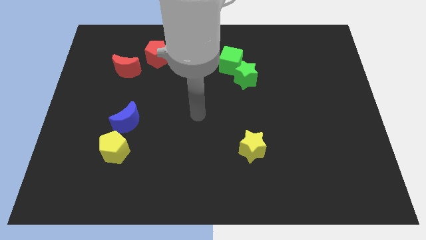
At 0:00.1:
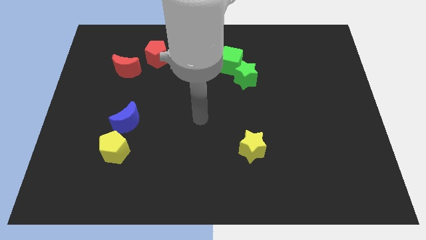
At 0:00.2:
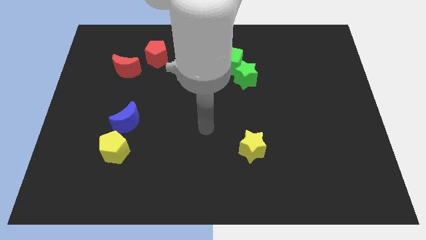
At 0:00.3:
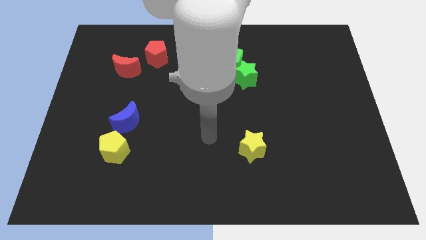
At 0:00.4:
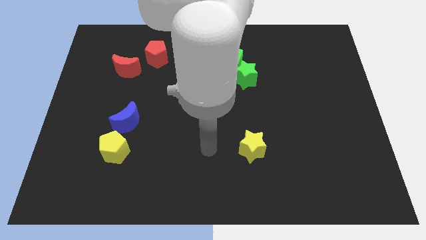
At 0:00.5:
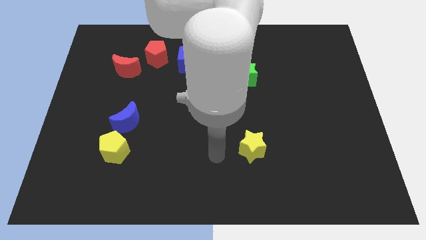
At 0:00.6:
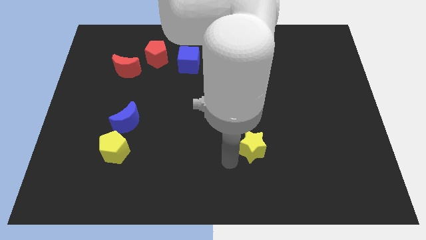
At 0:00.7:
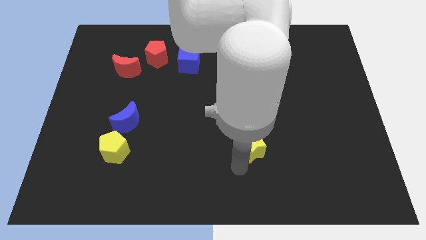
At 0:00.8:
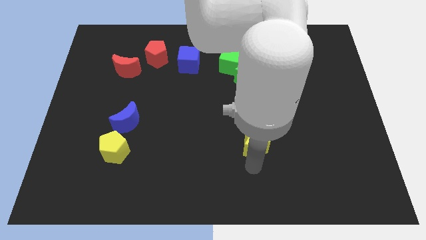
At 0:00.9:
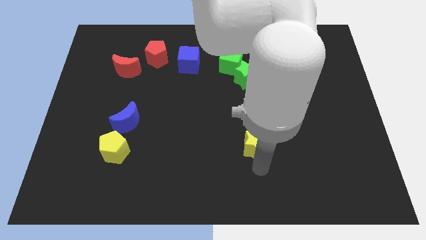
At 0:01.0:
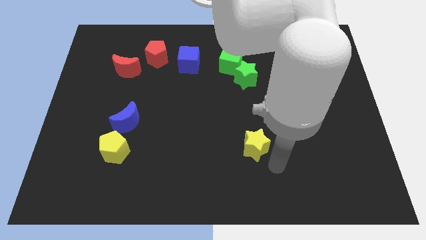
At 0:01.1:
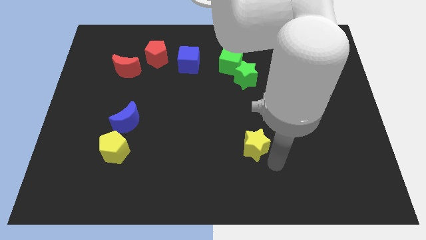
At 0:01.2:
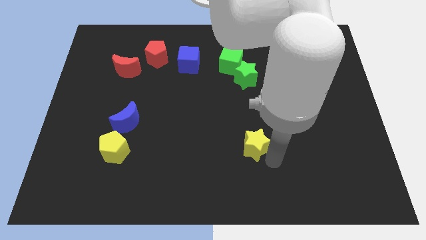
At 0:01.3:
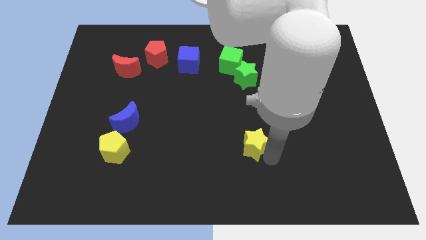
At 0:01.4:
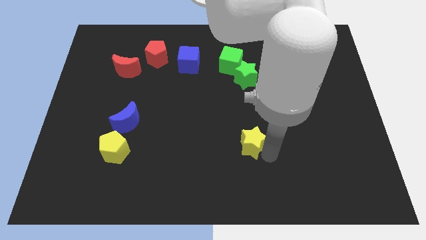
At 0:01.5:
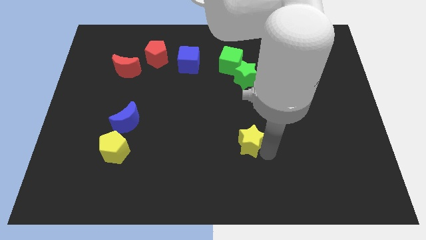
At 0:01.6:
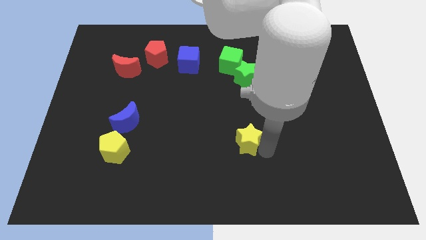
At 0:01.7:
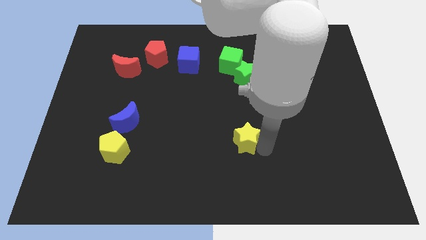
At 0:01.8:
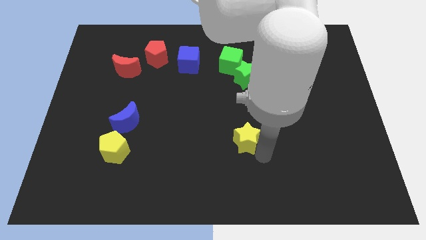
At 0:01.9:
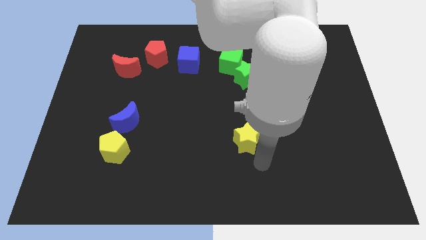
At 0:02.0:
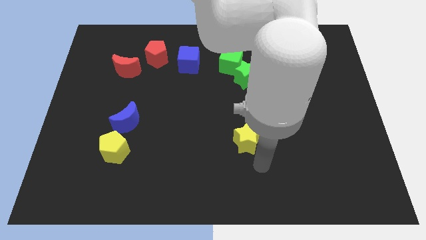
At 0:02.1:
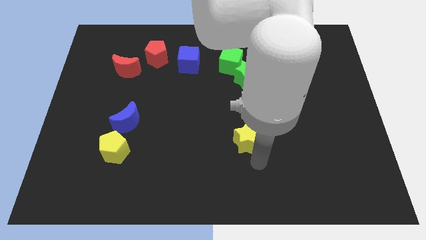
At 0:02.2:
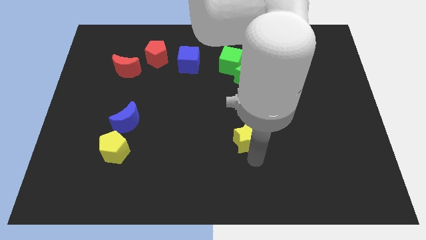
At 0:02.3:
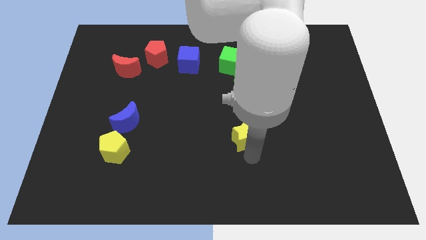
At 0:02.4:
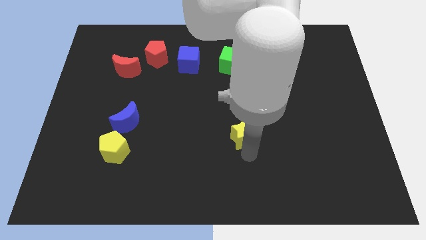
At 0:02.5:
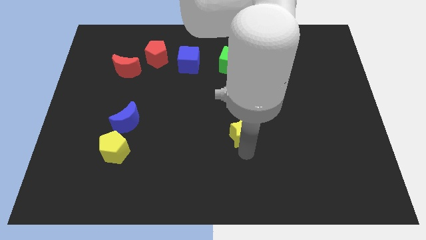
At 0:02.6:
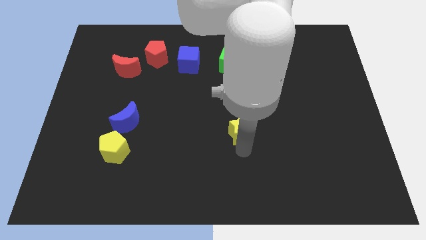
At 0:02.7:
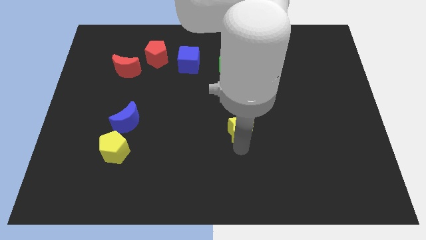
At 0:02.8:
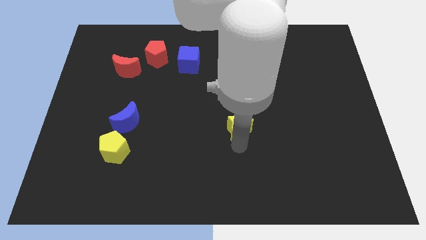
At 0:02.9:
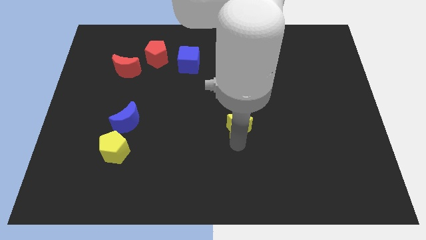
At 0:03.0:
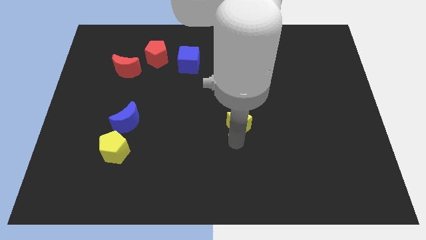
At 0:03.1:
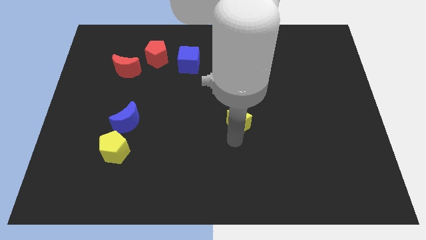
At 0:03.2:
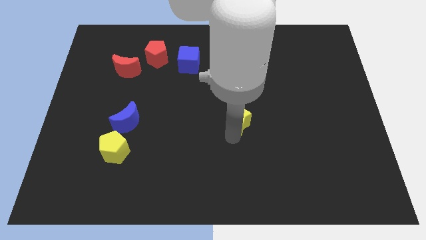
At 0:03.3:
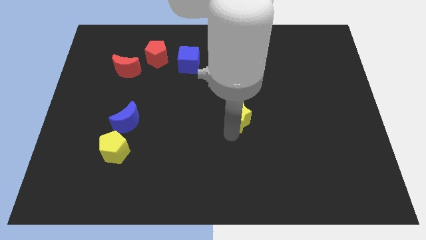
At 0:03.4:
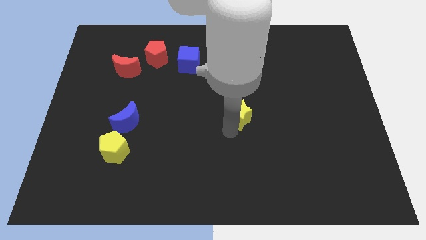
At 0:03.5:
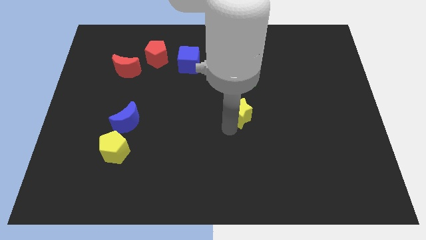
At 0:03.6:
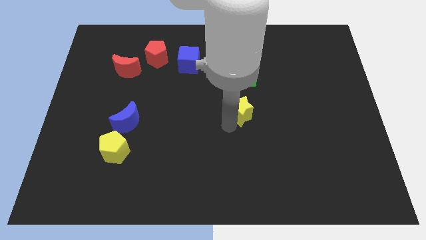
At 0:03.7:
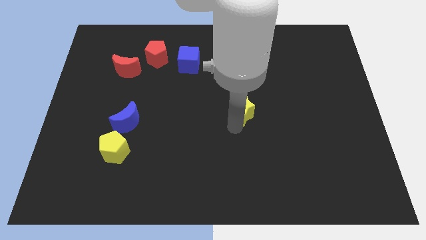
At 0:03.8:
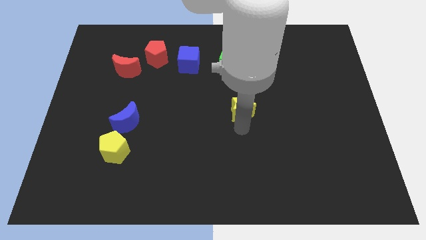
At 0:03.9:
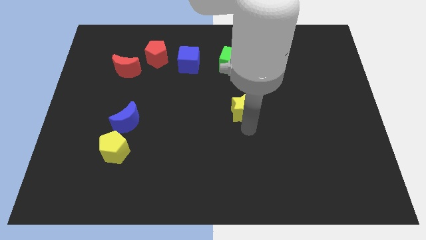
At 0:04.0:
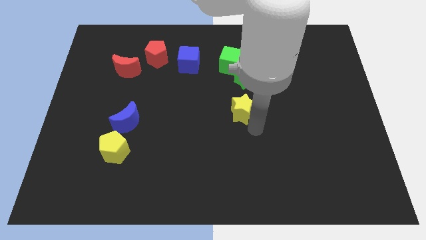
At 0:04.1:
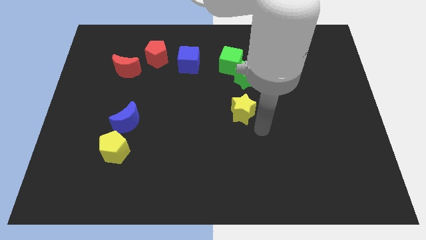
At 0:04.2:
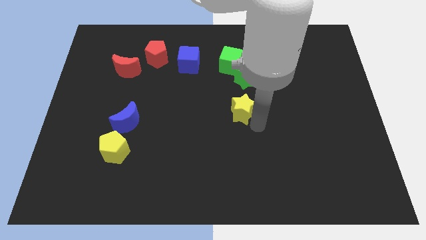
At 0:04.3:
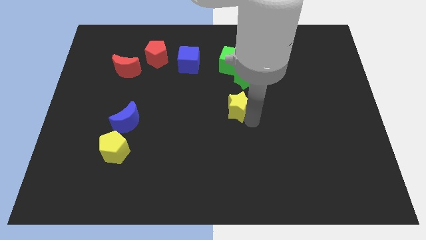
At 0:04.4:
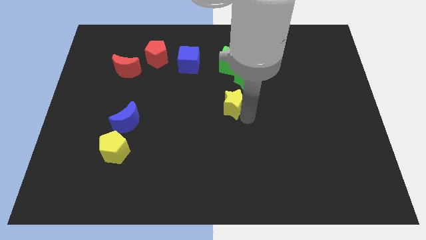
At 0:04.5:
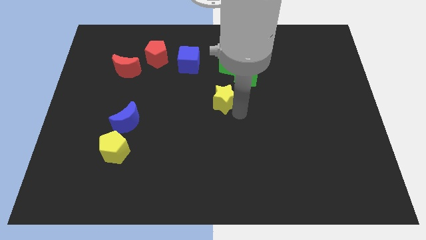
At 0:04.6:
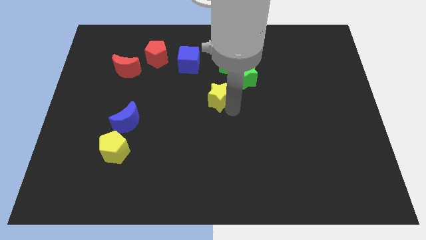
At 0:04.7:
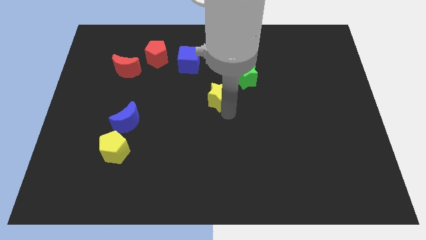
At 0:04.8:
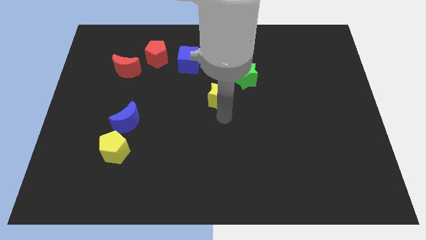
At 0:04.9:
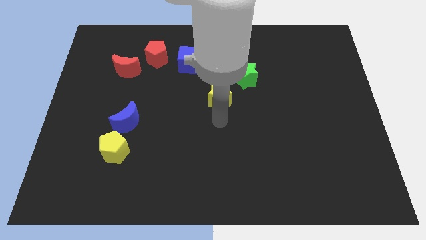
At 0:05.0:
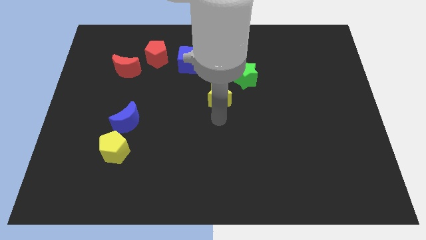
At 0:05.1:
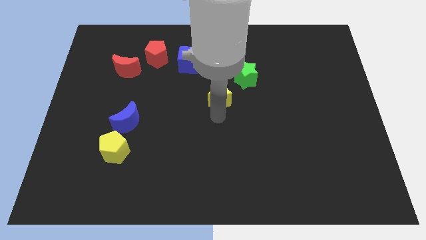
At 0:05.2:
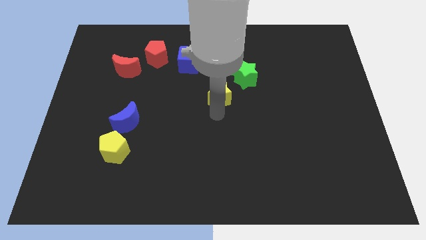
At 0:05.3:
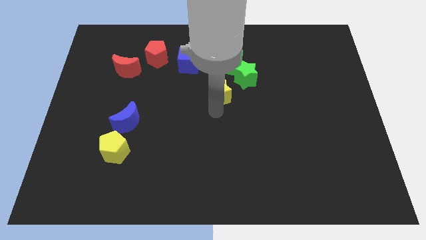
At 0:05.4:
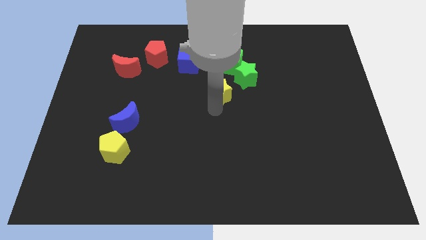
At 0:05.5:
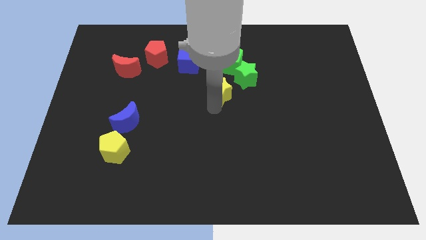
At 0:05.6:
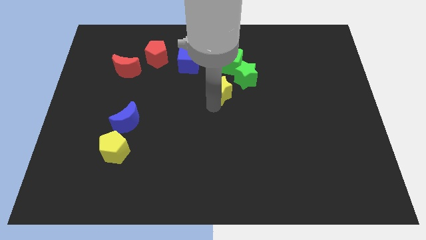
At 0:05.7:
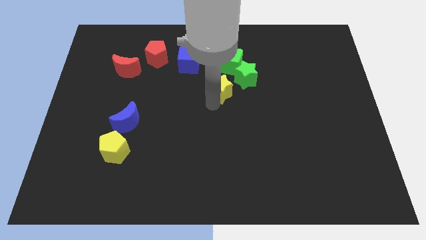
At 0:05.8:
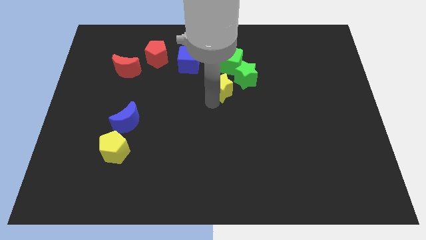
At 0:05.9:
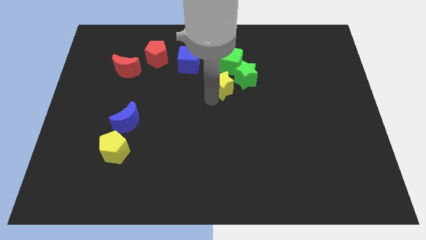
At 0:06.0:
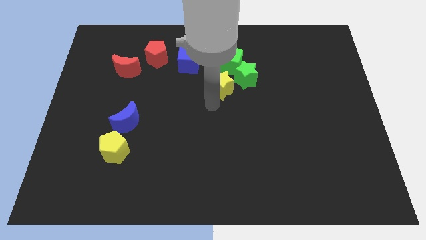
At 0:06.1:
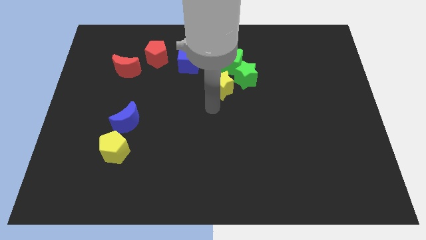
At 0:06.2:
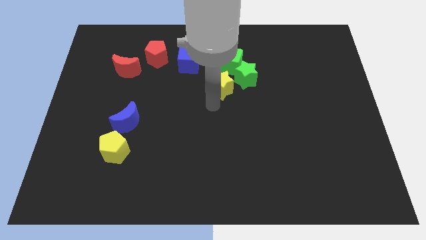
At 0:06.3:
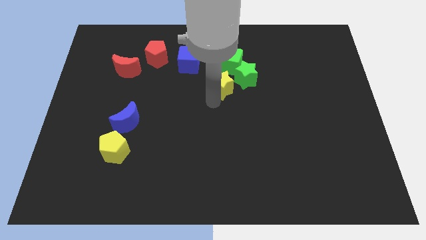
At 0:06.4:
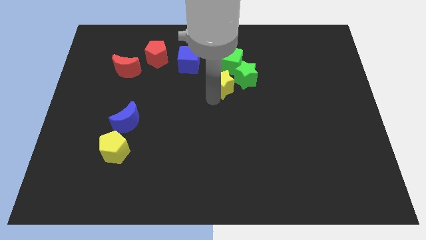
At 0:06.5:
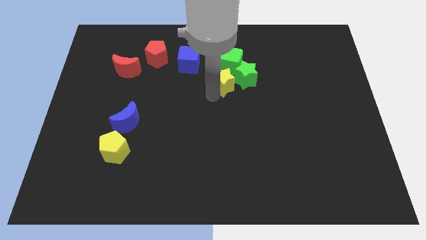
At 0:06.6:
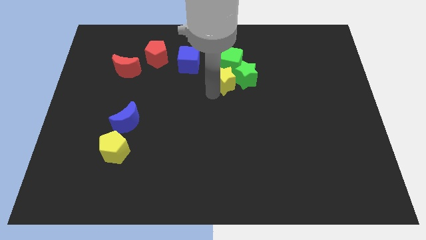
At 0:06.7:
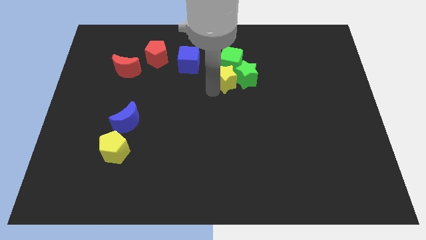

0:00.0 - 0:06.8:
push the yellow star close to the green cube
